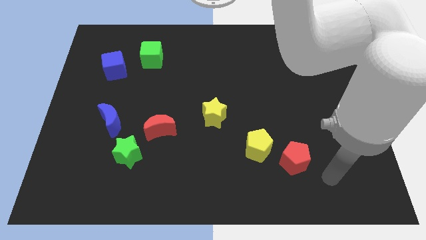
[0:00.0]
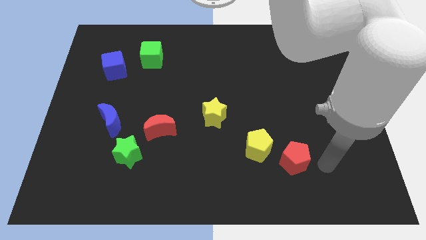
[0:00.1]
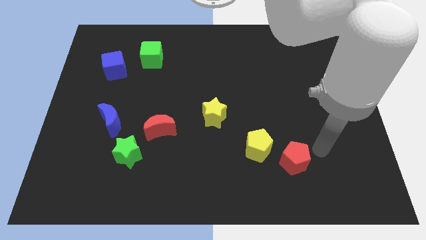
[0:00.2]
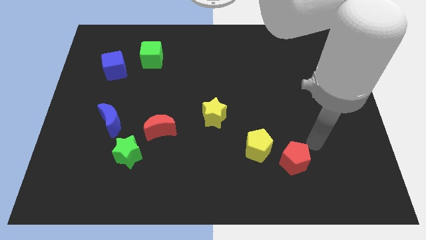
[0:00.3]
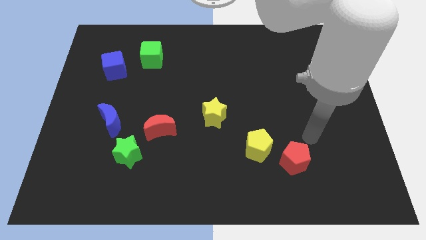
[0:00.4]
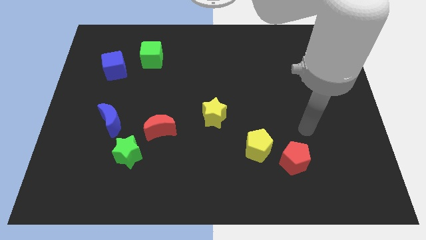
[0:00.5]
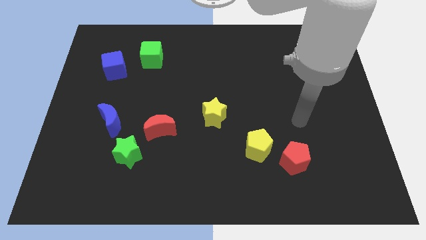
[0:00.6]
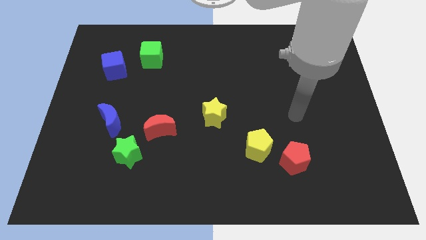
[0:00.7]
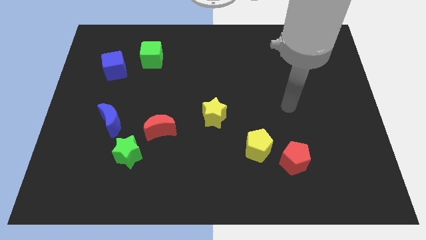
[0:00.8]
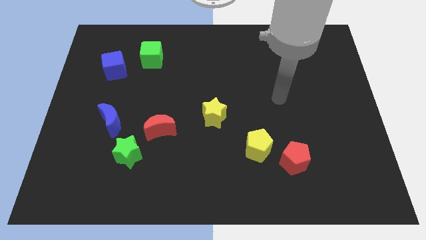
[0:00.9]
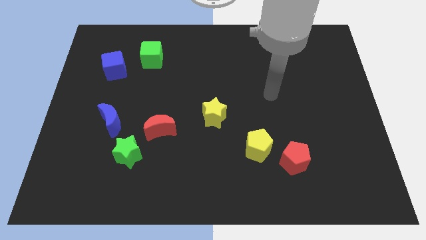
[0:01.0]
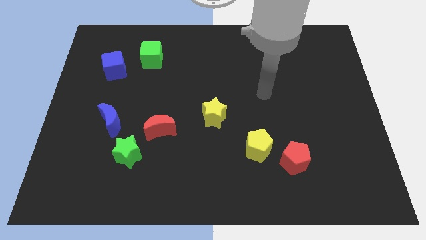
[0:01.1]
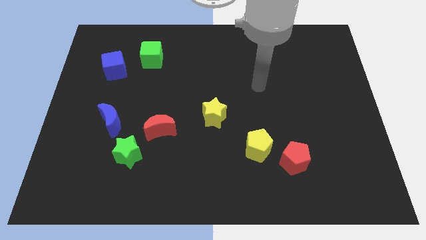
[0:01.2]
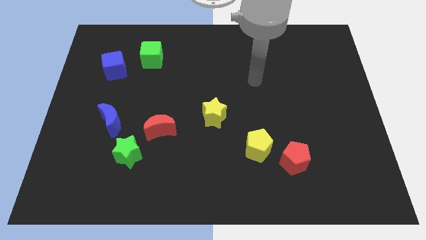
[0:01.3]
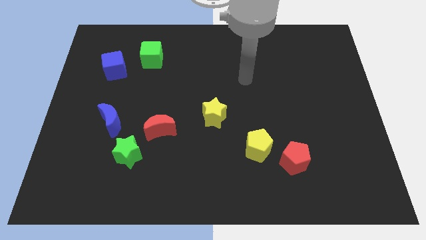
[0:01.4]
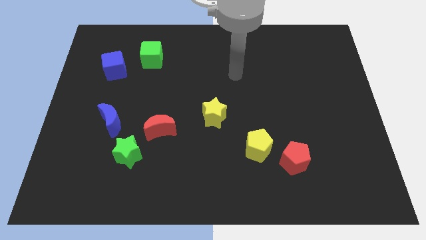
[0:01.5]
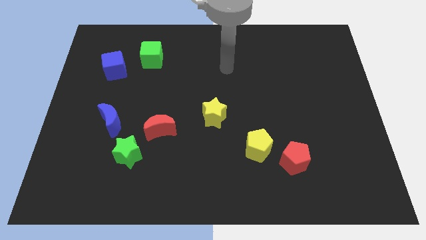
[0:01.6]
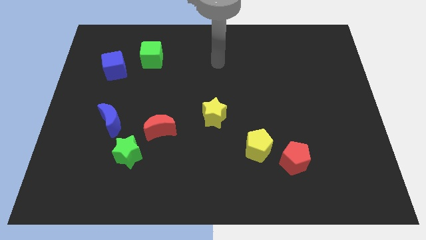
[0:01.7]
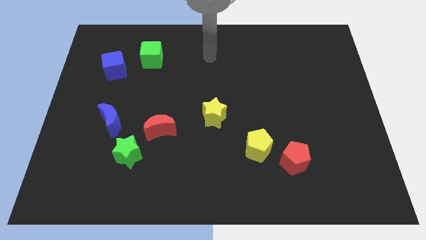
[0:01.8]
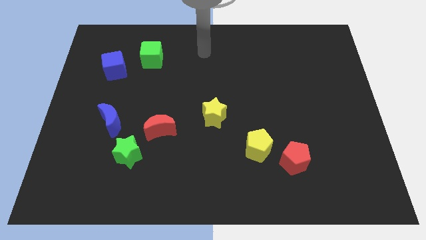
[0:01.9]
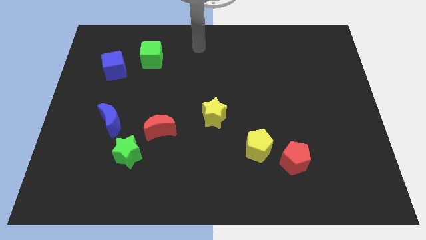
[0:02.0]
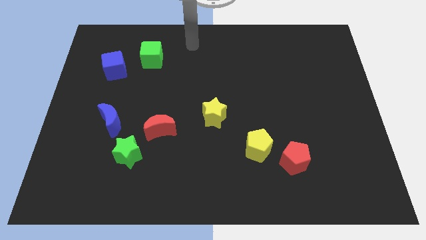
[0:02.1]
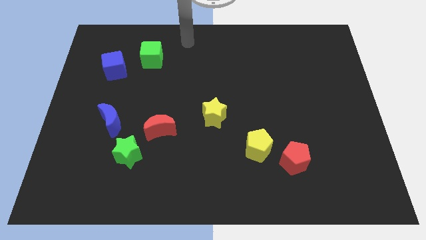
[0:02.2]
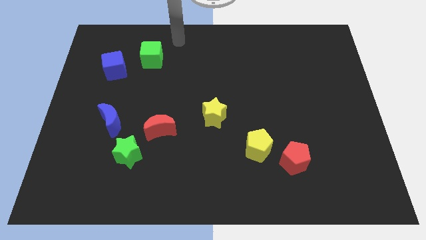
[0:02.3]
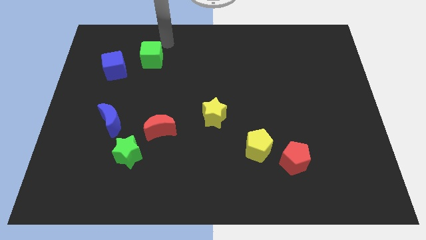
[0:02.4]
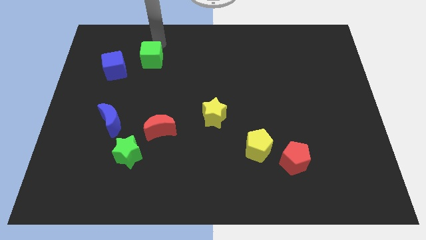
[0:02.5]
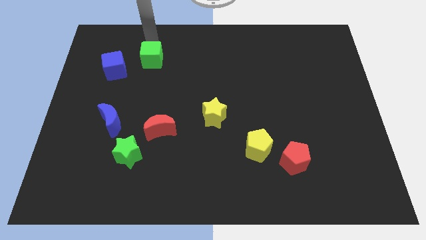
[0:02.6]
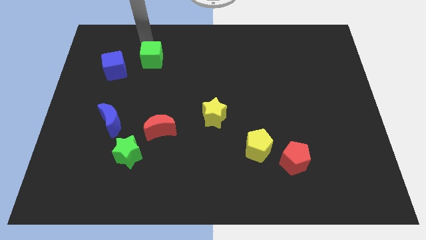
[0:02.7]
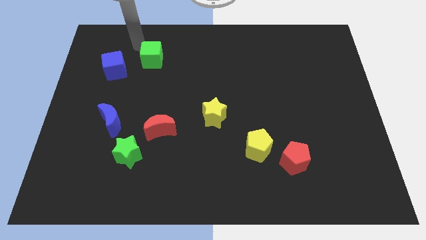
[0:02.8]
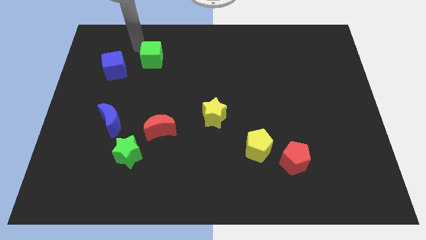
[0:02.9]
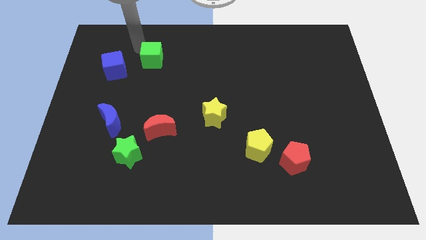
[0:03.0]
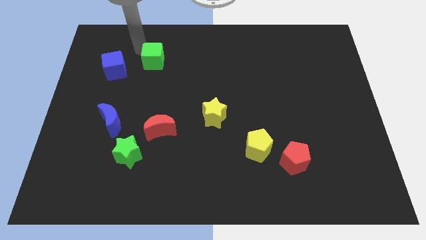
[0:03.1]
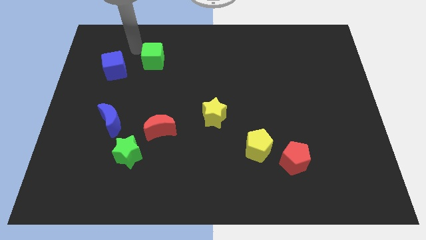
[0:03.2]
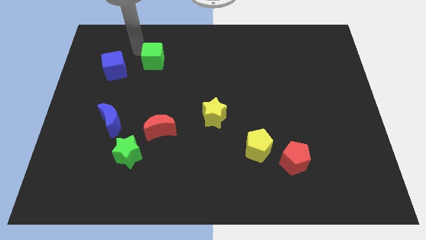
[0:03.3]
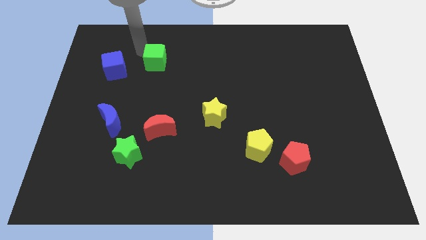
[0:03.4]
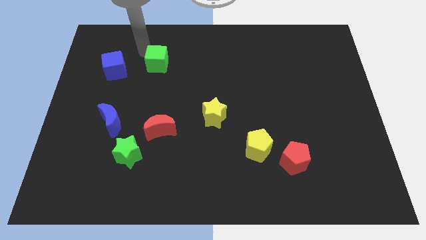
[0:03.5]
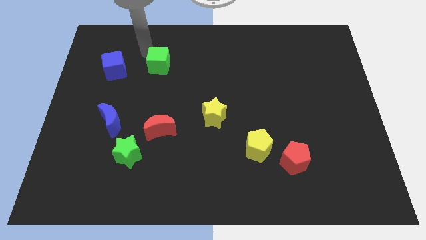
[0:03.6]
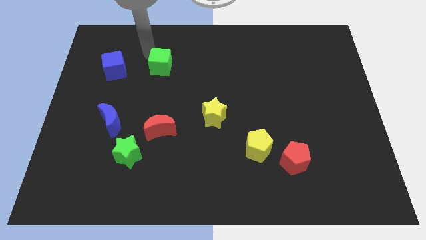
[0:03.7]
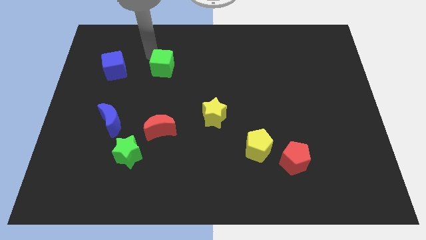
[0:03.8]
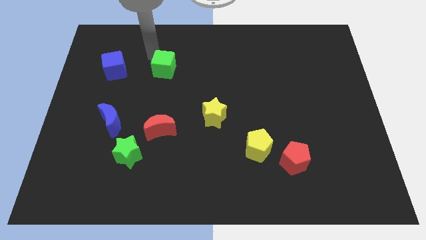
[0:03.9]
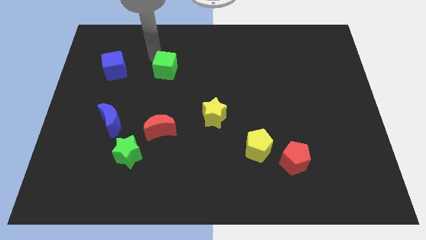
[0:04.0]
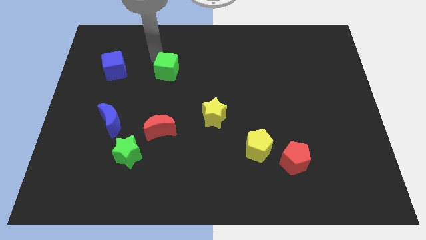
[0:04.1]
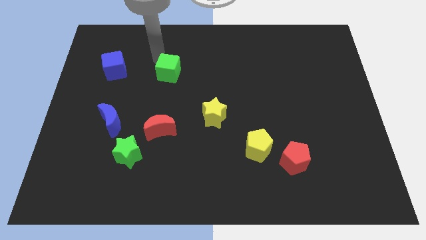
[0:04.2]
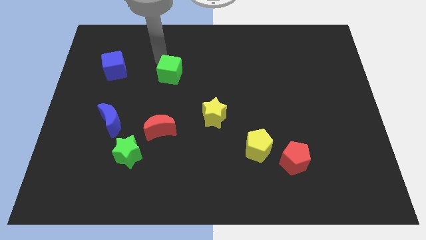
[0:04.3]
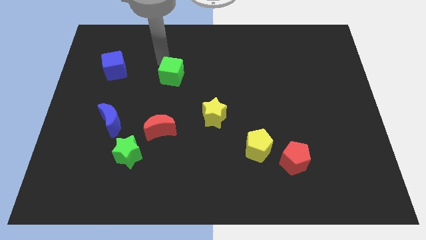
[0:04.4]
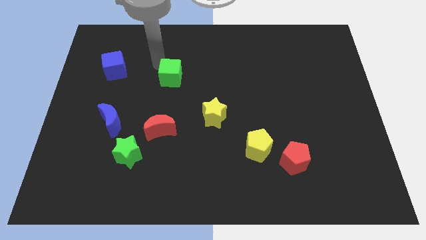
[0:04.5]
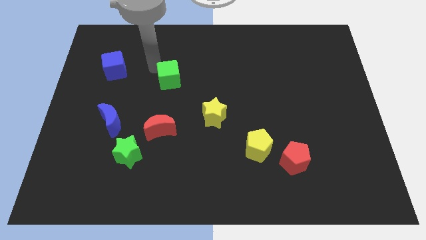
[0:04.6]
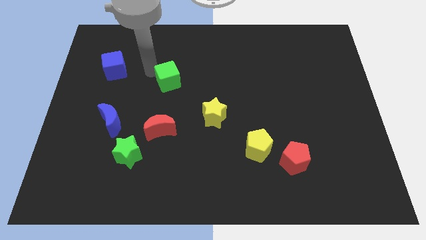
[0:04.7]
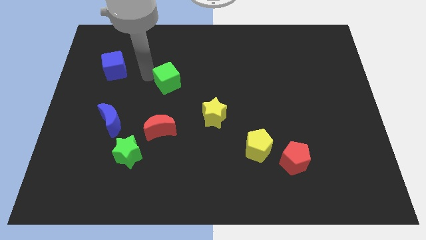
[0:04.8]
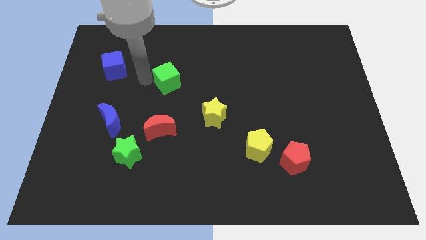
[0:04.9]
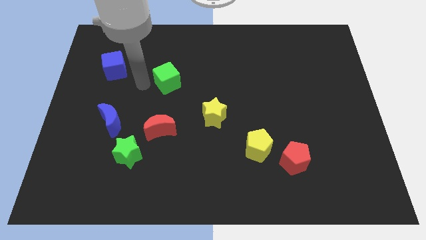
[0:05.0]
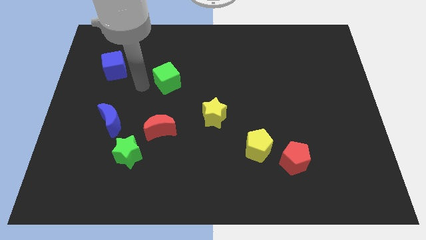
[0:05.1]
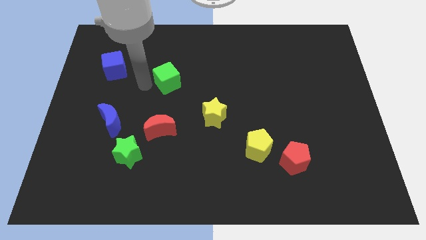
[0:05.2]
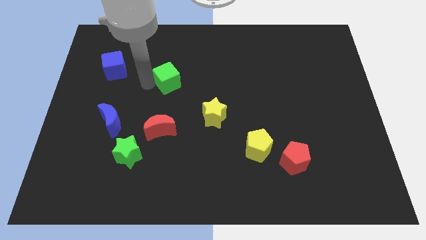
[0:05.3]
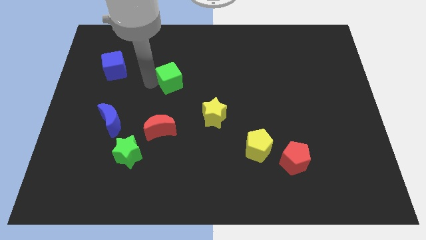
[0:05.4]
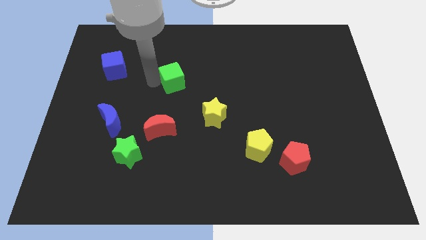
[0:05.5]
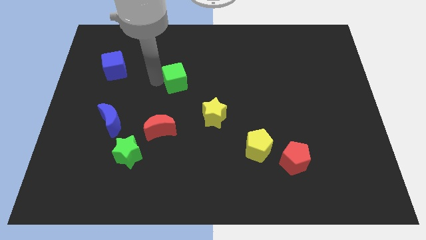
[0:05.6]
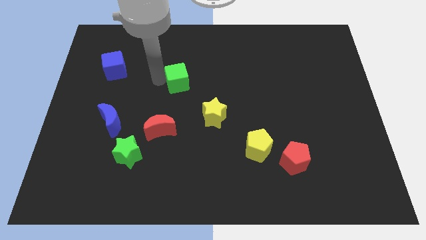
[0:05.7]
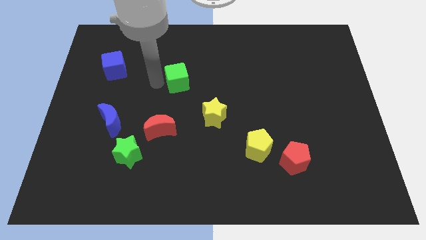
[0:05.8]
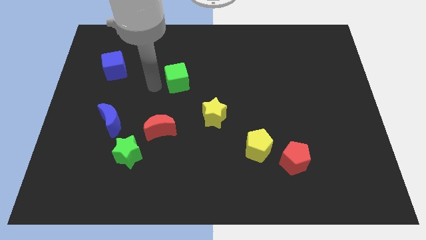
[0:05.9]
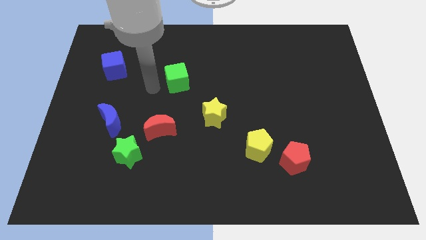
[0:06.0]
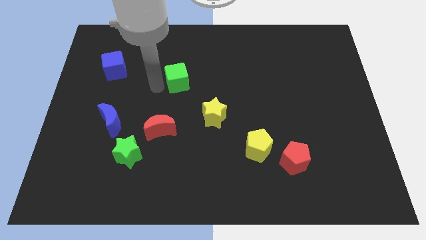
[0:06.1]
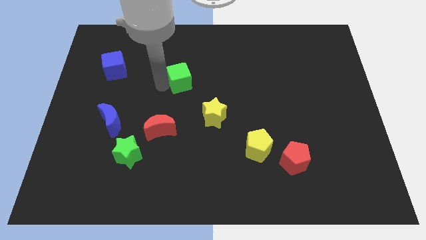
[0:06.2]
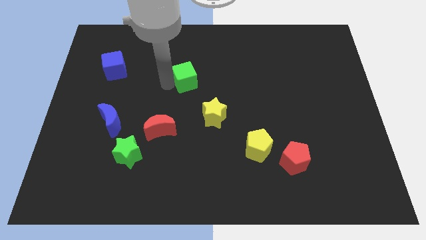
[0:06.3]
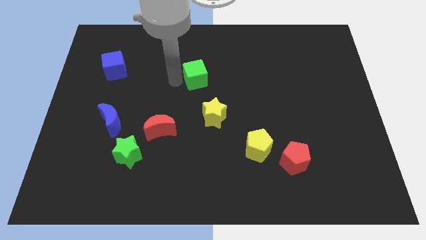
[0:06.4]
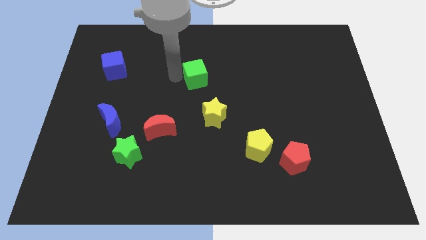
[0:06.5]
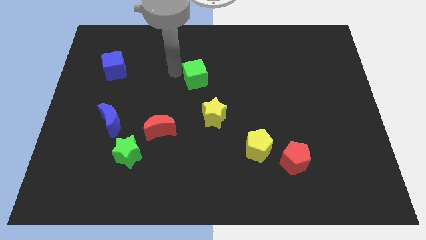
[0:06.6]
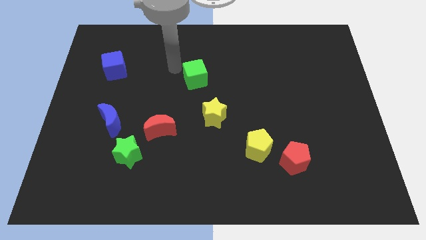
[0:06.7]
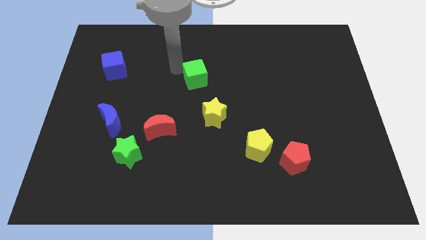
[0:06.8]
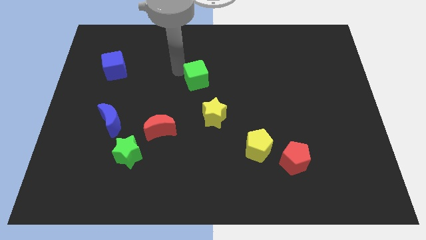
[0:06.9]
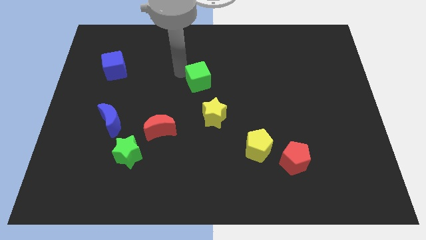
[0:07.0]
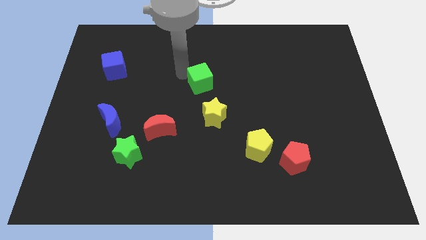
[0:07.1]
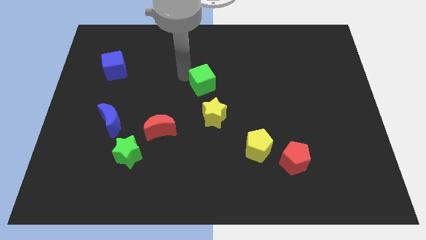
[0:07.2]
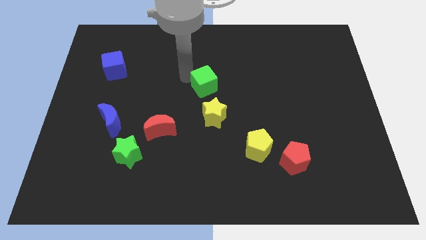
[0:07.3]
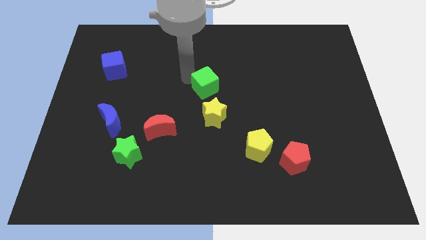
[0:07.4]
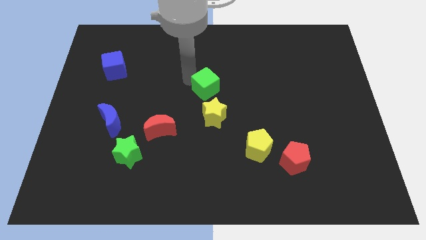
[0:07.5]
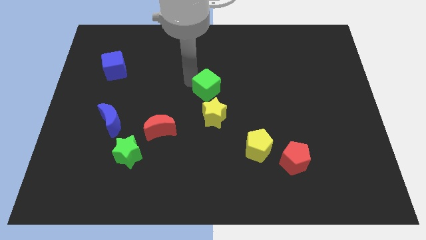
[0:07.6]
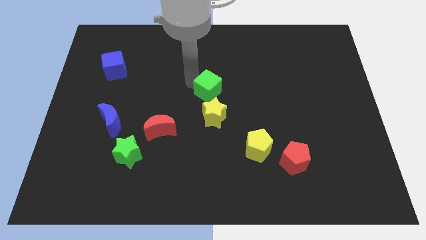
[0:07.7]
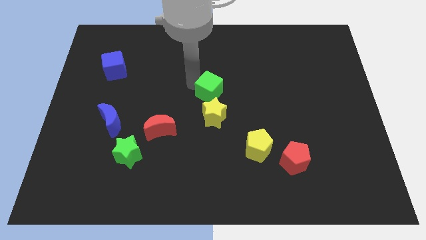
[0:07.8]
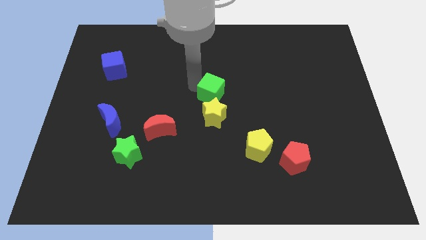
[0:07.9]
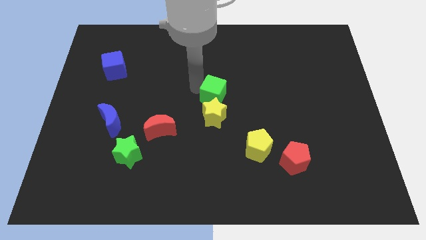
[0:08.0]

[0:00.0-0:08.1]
push the green cube to the top right of the yellow star
